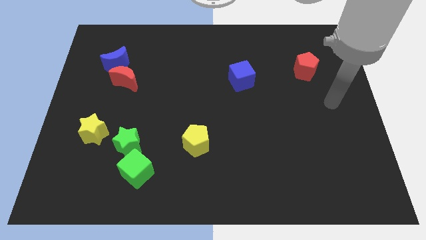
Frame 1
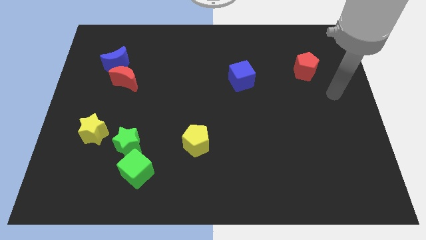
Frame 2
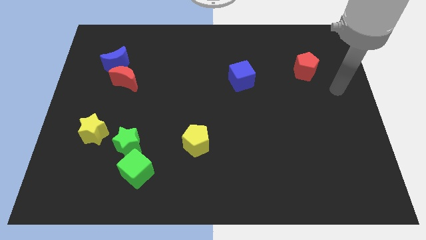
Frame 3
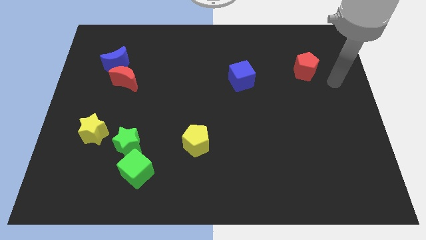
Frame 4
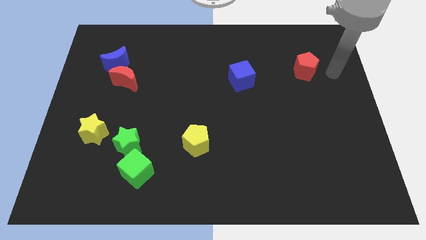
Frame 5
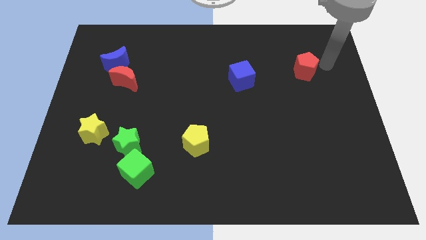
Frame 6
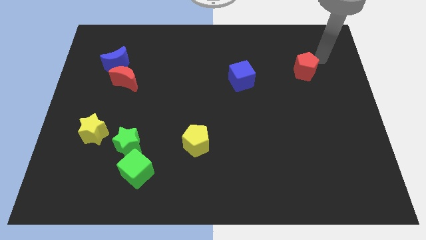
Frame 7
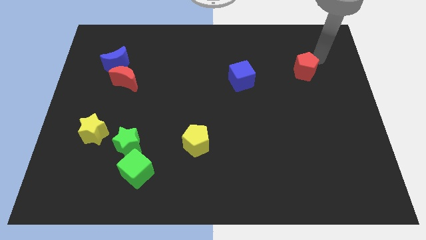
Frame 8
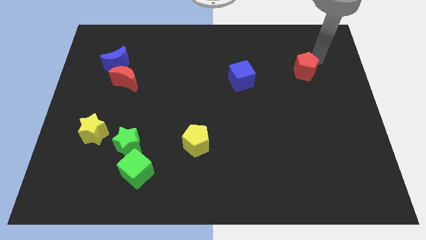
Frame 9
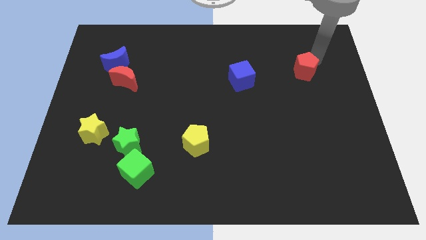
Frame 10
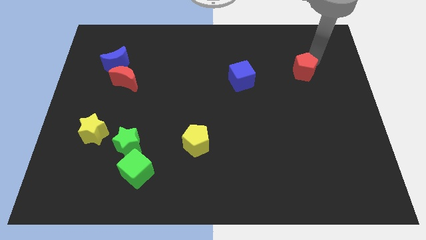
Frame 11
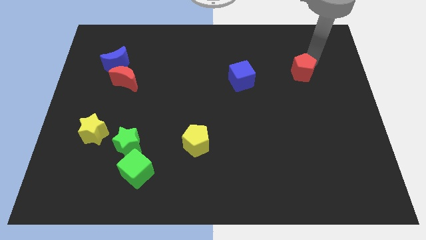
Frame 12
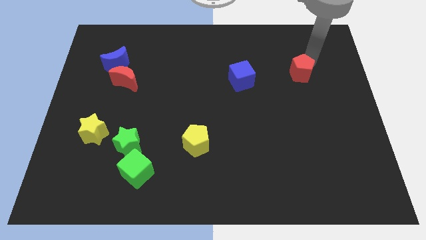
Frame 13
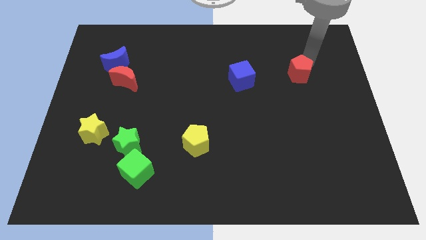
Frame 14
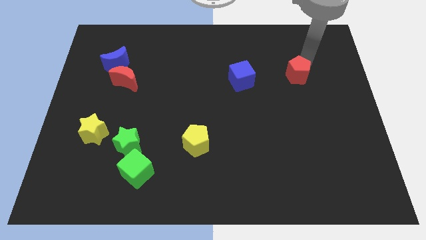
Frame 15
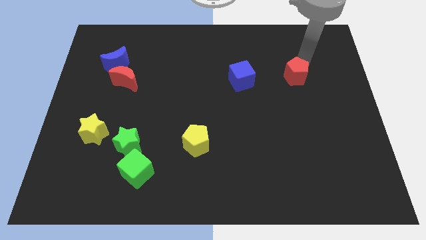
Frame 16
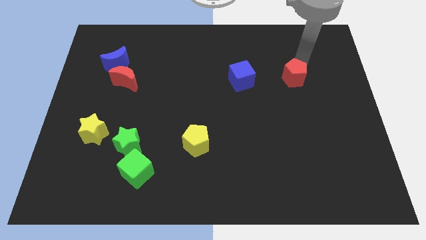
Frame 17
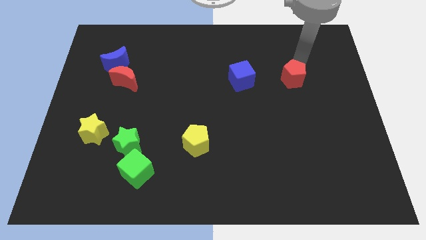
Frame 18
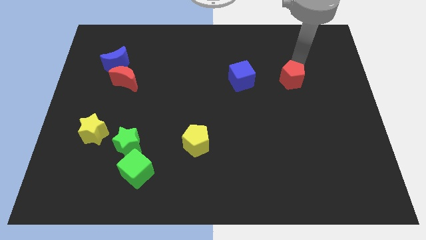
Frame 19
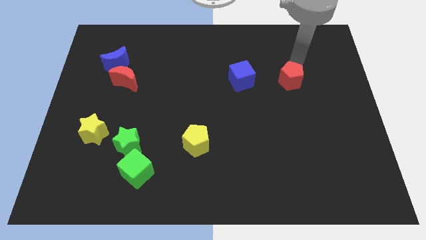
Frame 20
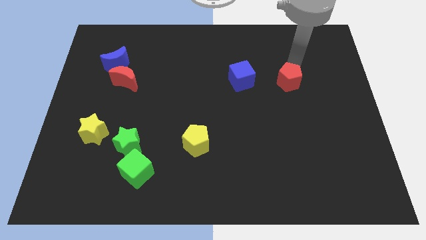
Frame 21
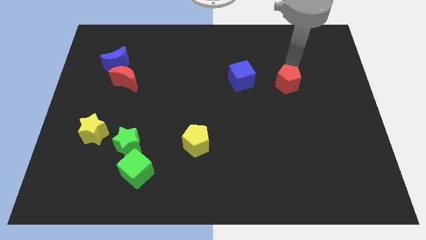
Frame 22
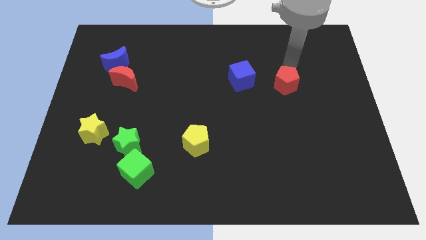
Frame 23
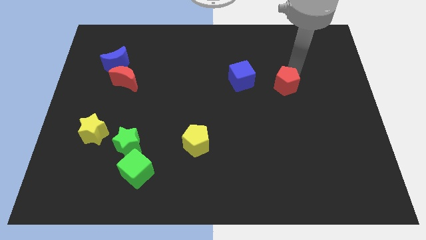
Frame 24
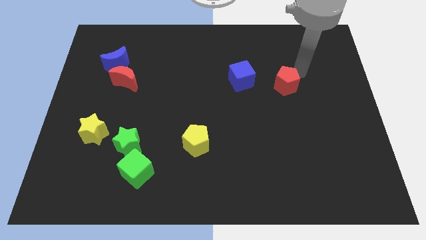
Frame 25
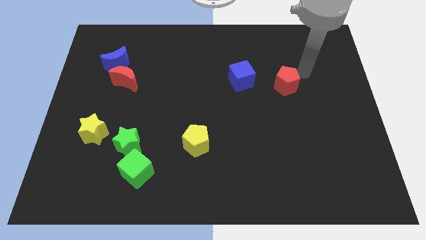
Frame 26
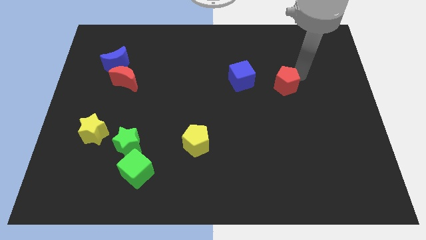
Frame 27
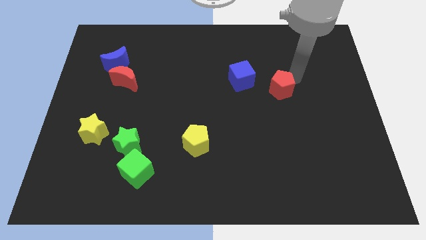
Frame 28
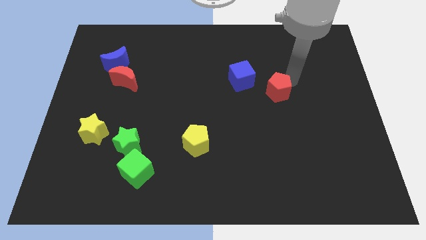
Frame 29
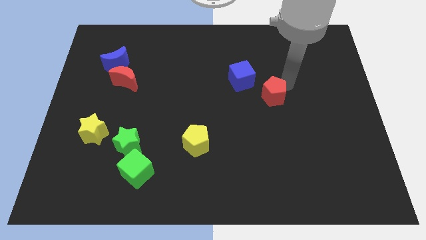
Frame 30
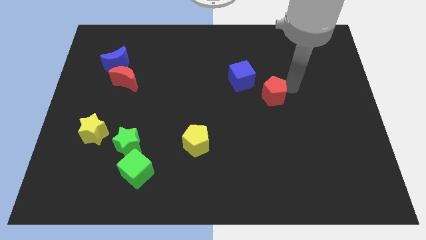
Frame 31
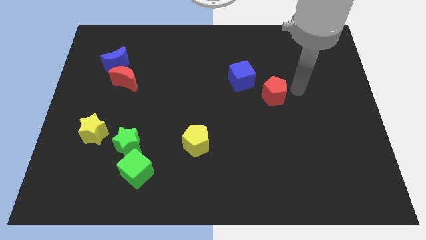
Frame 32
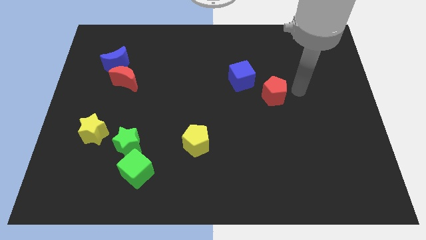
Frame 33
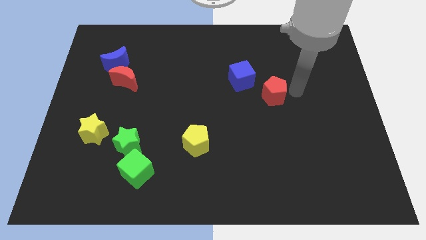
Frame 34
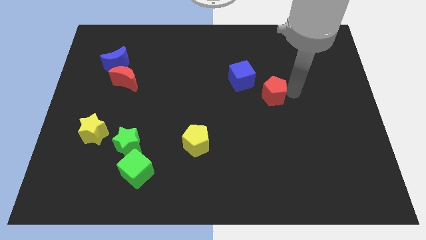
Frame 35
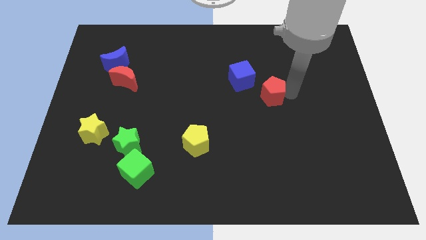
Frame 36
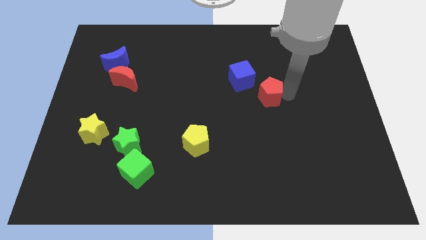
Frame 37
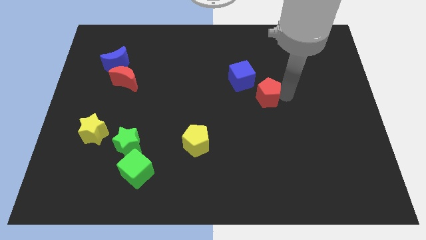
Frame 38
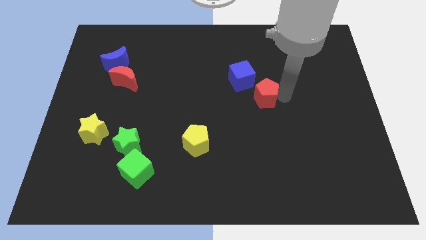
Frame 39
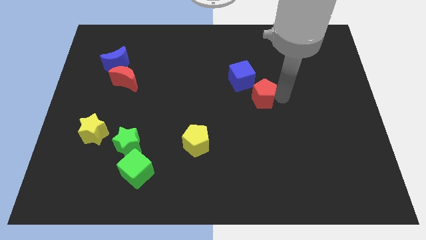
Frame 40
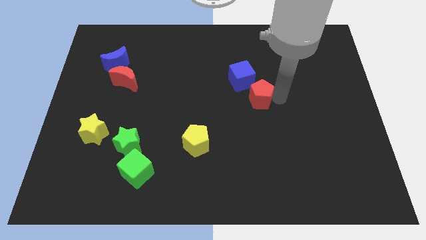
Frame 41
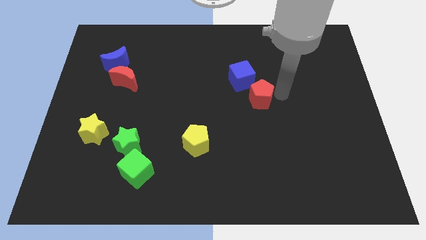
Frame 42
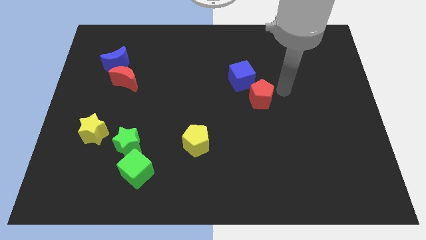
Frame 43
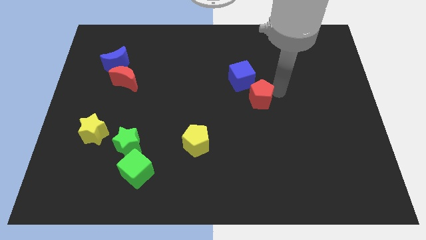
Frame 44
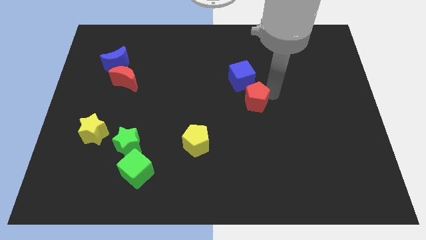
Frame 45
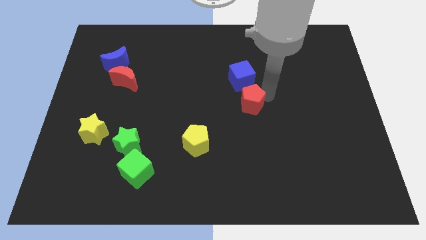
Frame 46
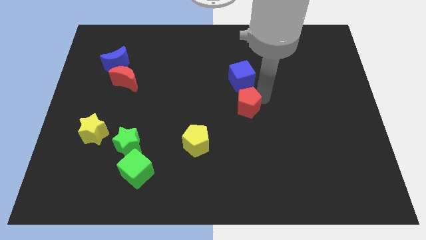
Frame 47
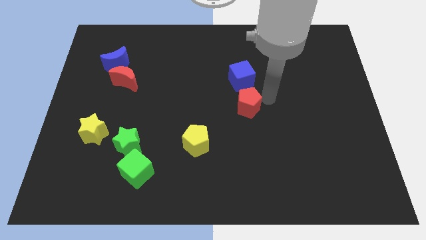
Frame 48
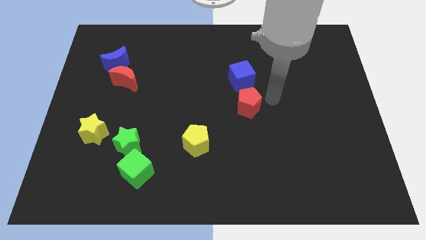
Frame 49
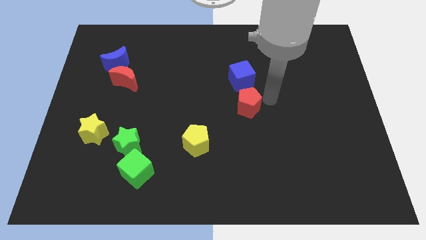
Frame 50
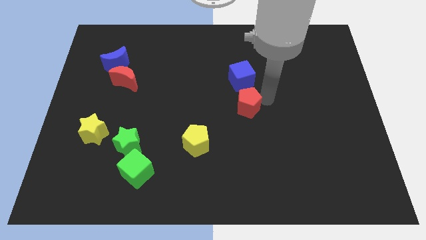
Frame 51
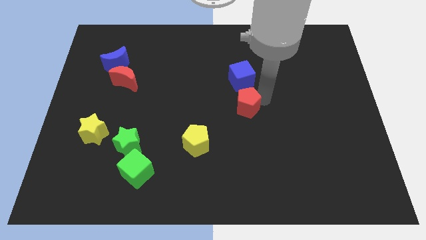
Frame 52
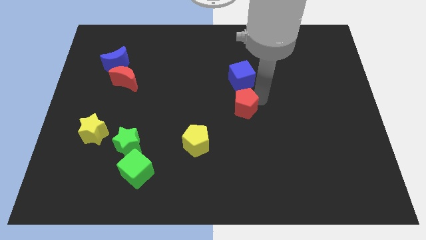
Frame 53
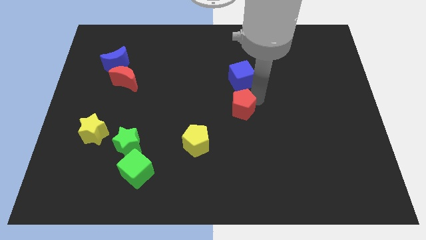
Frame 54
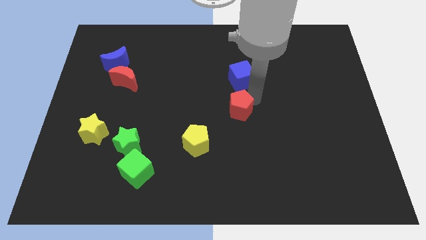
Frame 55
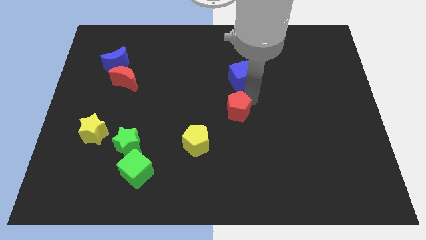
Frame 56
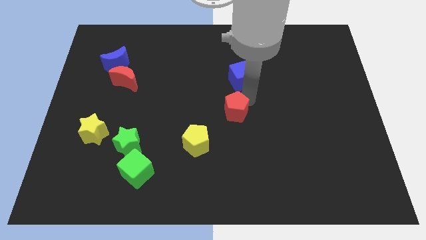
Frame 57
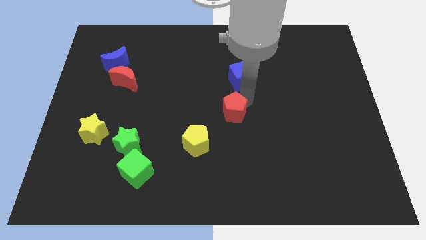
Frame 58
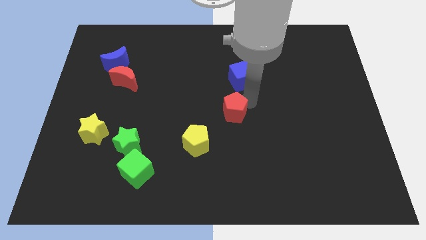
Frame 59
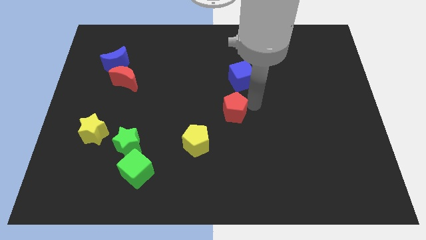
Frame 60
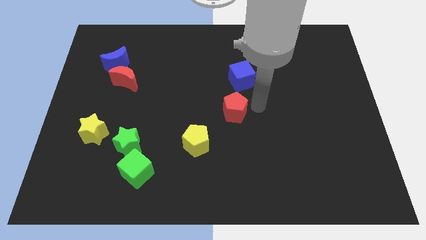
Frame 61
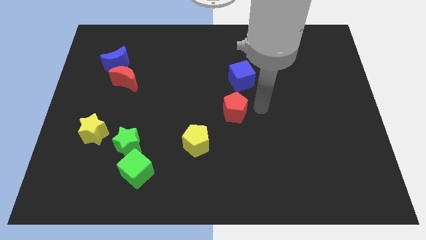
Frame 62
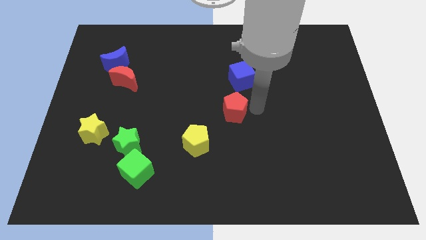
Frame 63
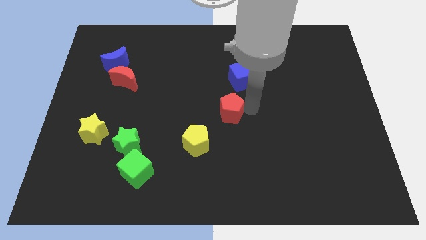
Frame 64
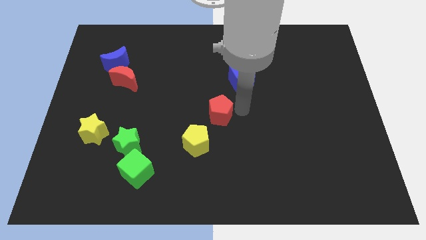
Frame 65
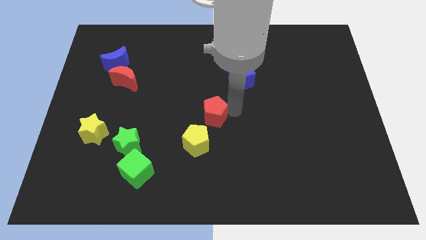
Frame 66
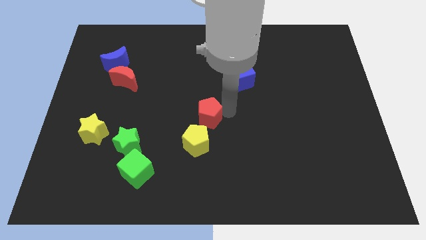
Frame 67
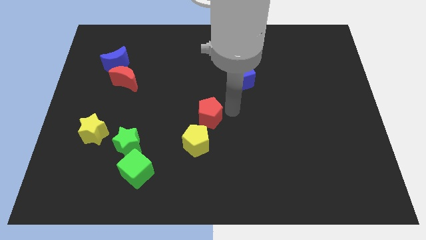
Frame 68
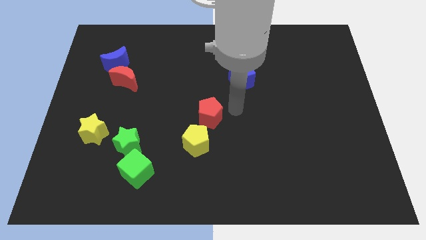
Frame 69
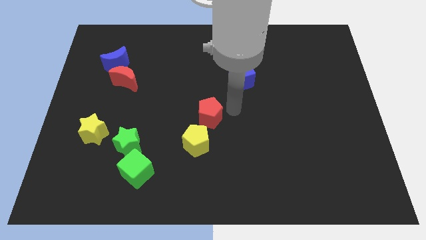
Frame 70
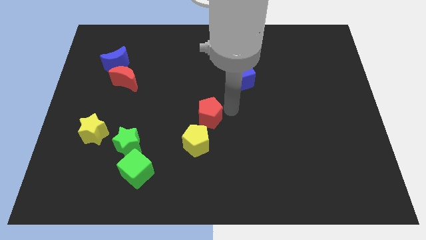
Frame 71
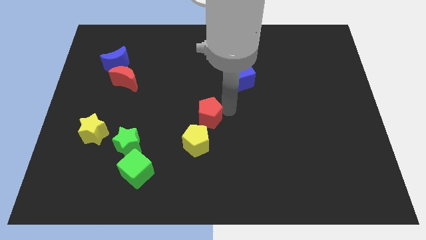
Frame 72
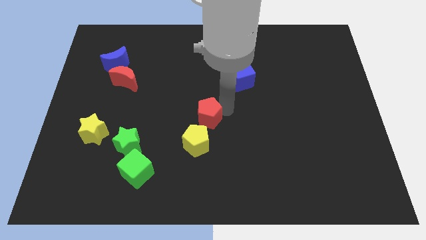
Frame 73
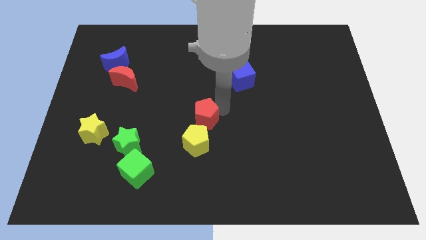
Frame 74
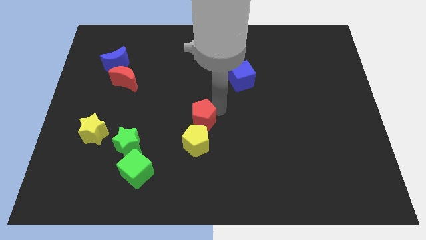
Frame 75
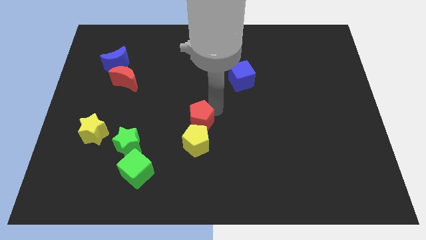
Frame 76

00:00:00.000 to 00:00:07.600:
move the red pentagon to the top left side of the yellow pentagon
